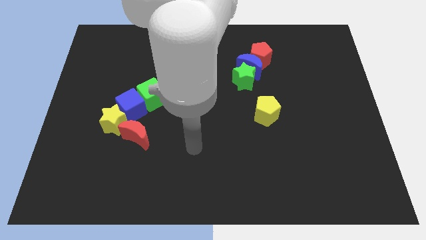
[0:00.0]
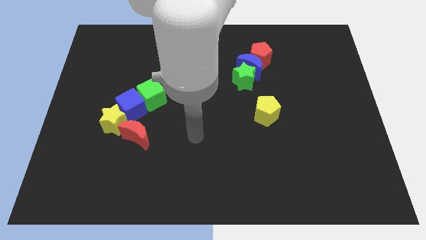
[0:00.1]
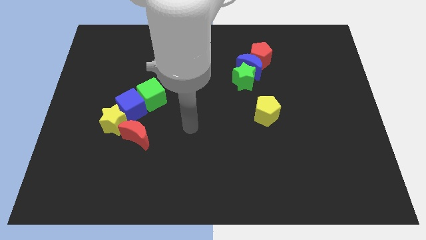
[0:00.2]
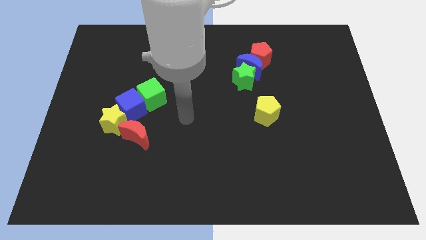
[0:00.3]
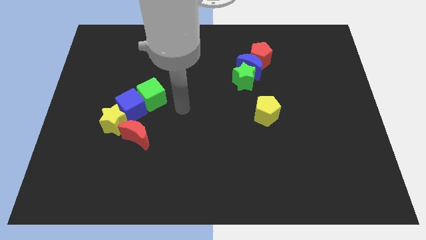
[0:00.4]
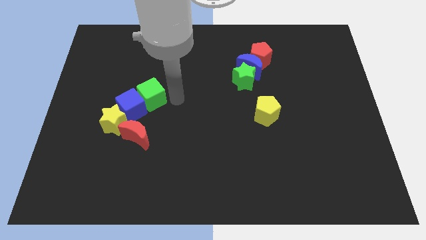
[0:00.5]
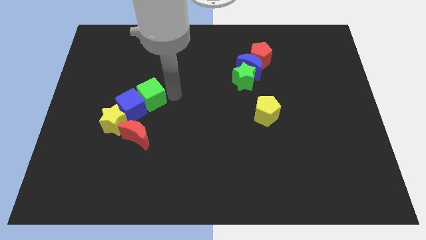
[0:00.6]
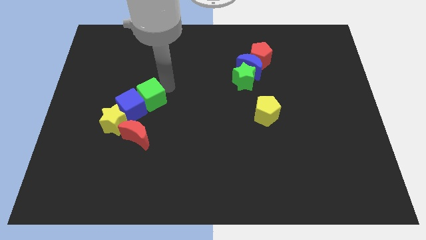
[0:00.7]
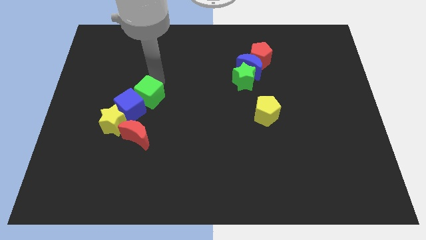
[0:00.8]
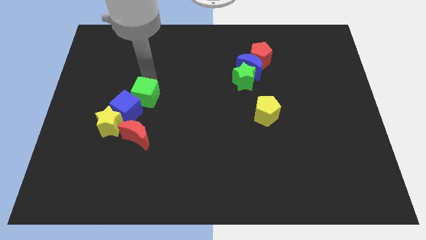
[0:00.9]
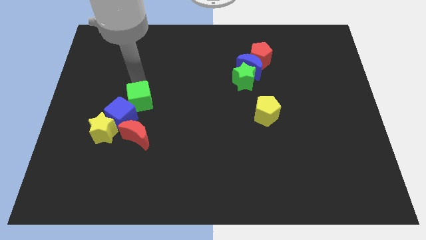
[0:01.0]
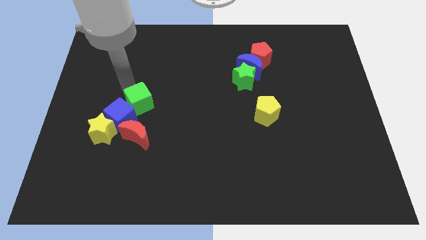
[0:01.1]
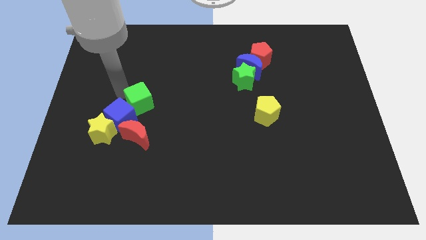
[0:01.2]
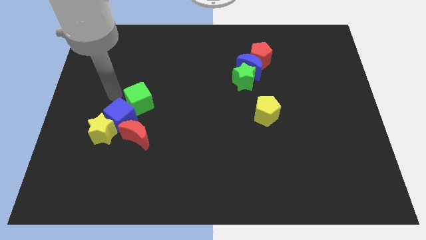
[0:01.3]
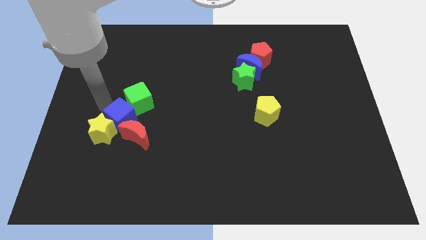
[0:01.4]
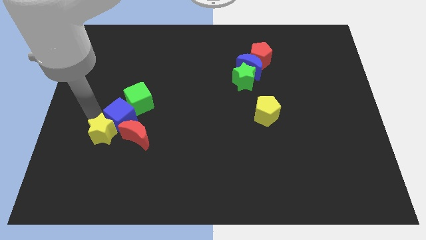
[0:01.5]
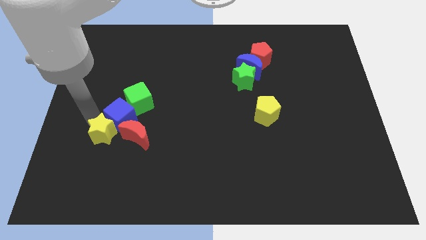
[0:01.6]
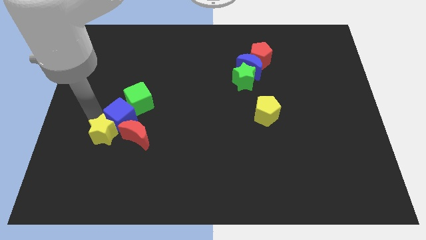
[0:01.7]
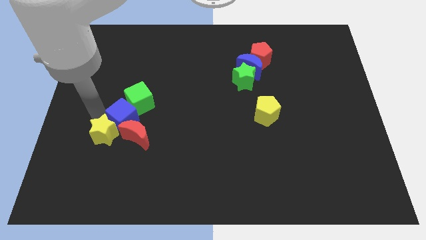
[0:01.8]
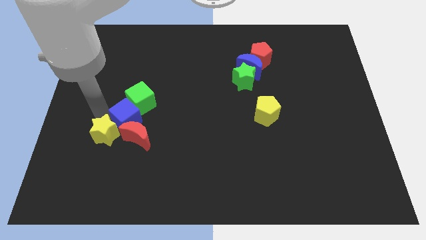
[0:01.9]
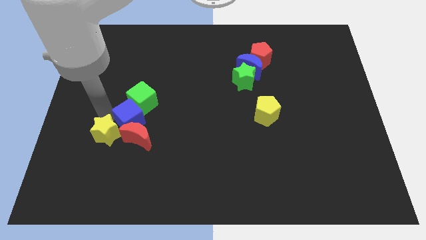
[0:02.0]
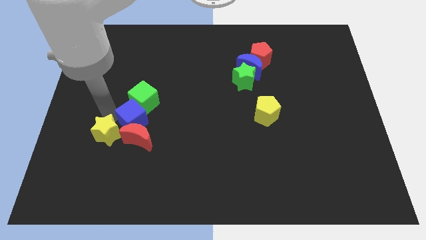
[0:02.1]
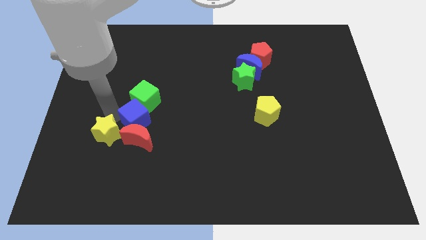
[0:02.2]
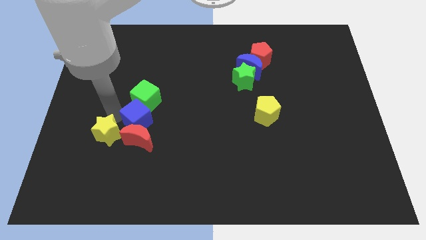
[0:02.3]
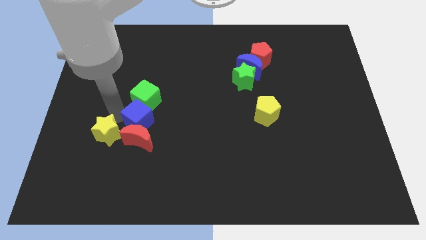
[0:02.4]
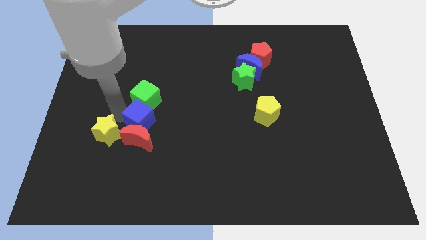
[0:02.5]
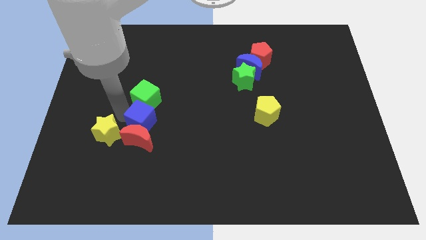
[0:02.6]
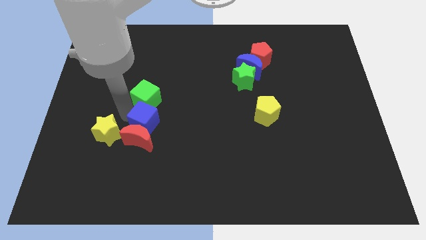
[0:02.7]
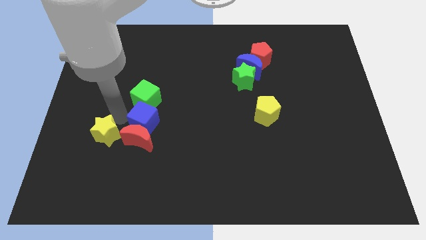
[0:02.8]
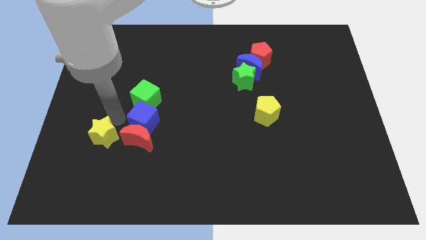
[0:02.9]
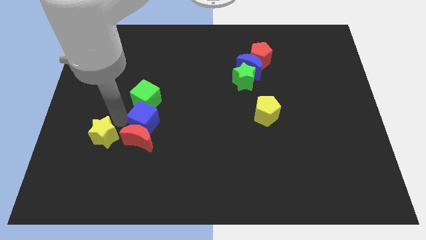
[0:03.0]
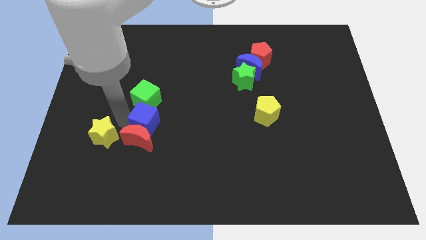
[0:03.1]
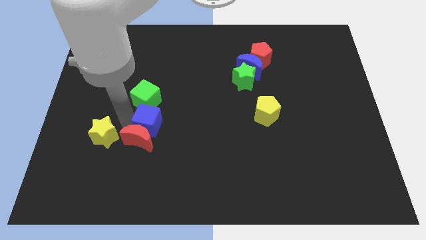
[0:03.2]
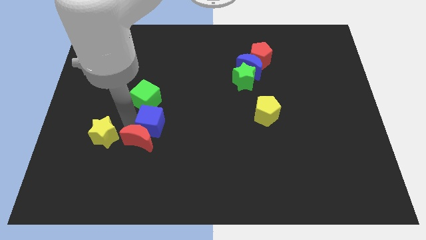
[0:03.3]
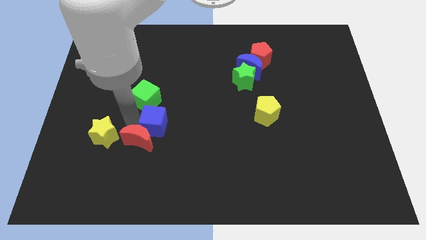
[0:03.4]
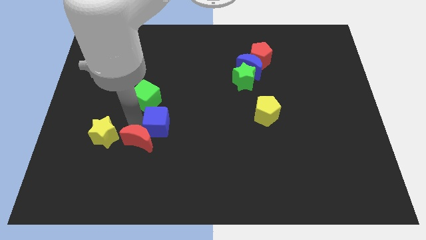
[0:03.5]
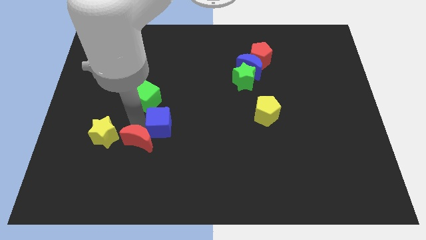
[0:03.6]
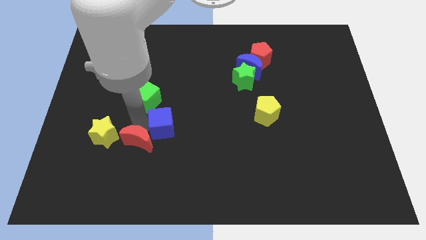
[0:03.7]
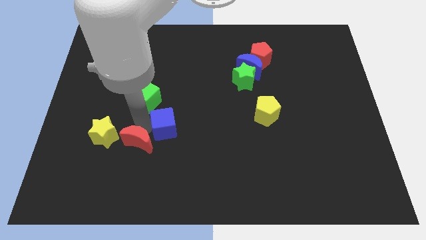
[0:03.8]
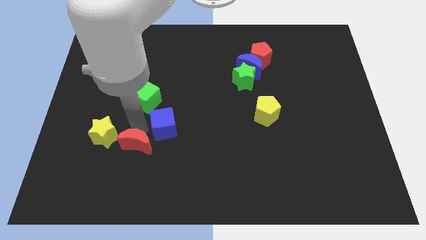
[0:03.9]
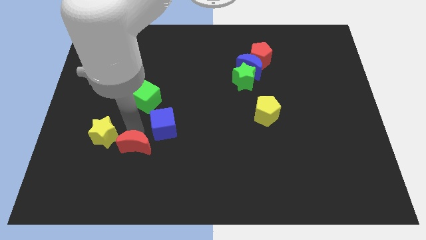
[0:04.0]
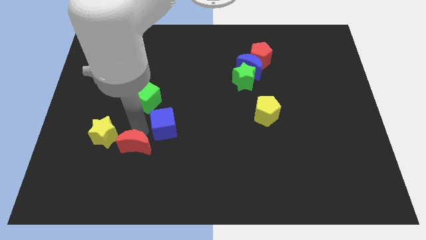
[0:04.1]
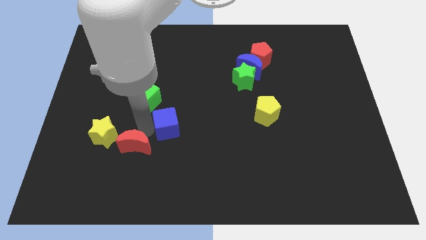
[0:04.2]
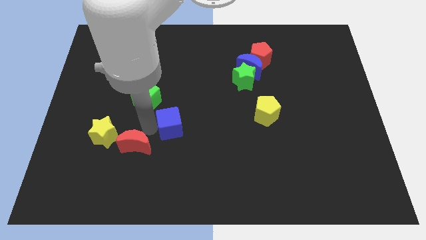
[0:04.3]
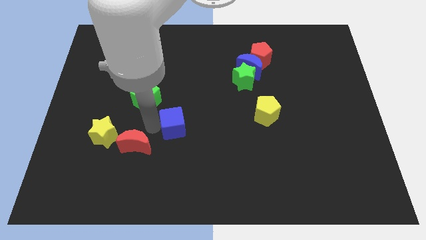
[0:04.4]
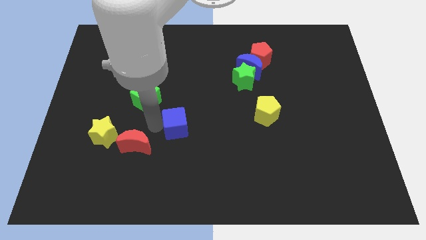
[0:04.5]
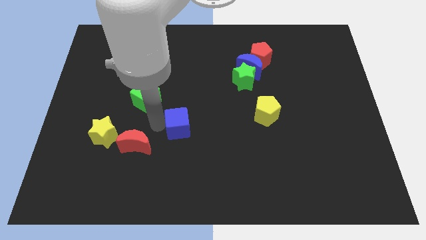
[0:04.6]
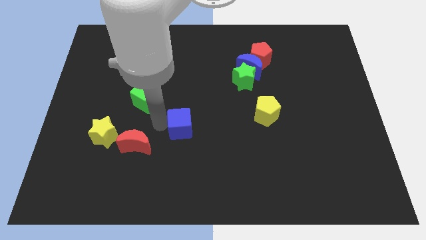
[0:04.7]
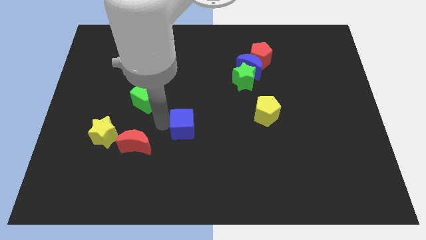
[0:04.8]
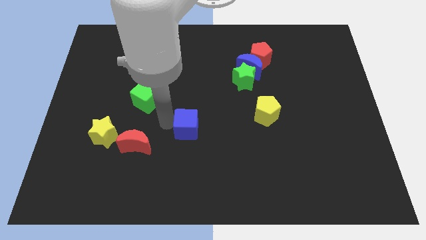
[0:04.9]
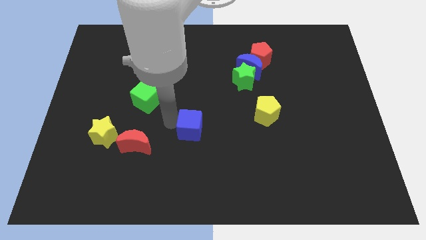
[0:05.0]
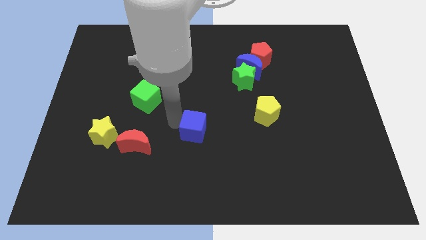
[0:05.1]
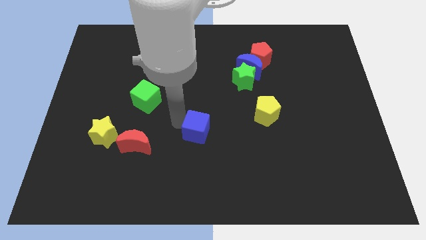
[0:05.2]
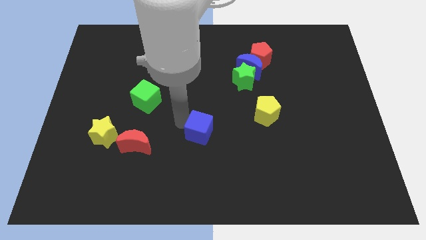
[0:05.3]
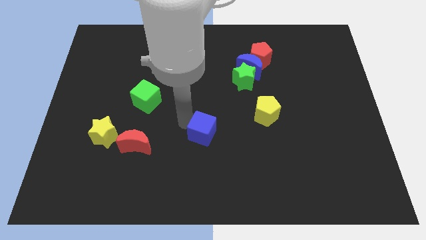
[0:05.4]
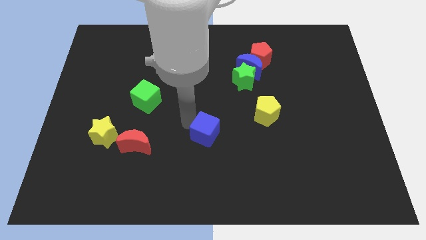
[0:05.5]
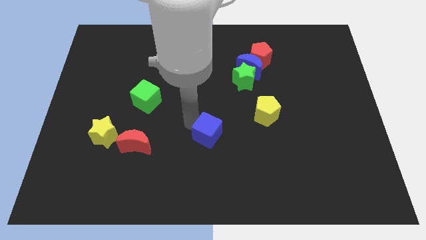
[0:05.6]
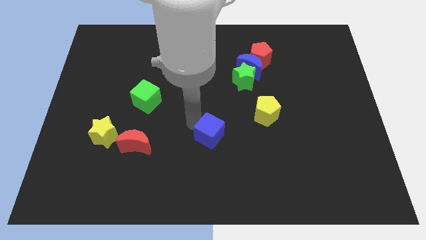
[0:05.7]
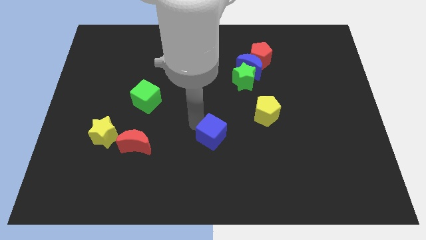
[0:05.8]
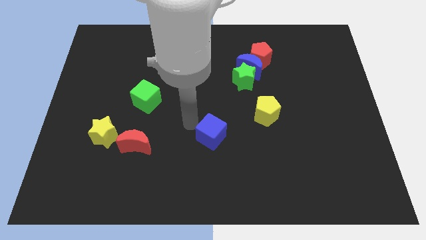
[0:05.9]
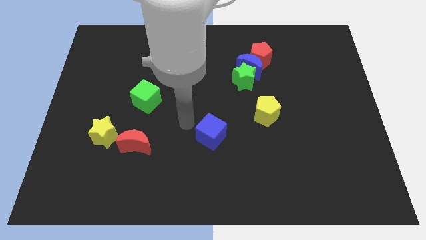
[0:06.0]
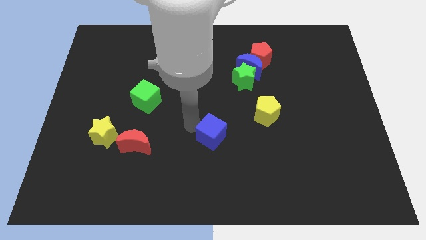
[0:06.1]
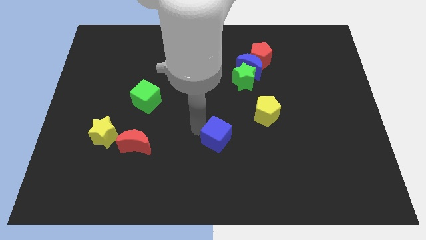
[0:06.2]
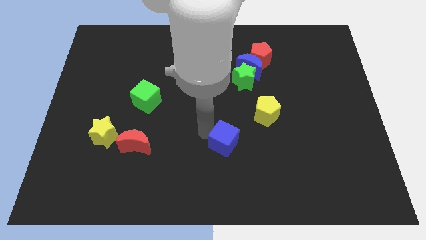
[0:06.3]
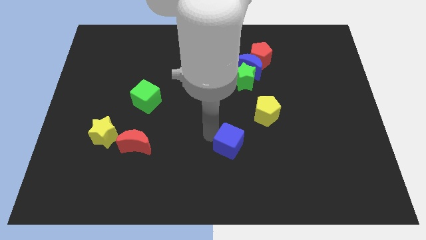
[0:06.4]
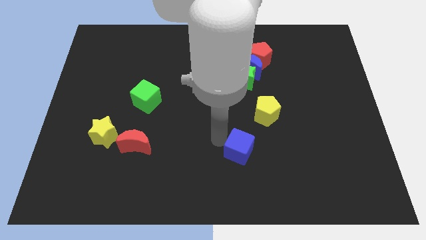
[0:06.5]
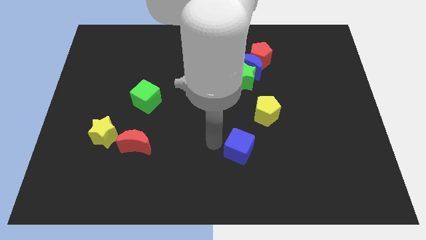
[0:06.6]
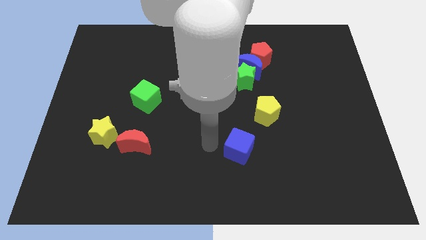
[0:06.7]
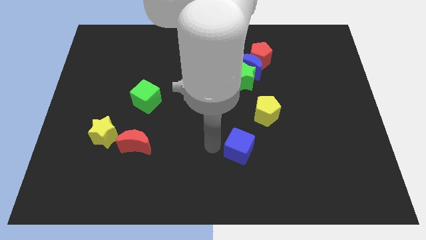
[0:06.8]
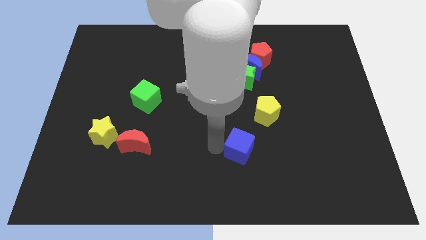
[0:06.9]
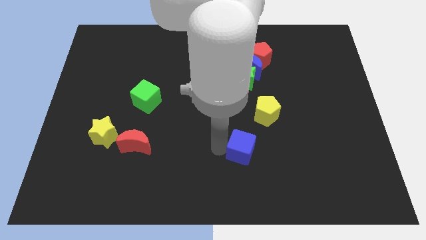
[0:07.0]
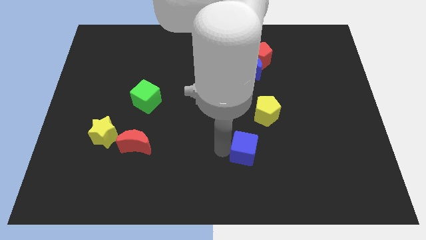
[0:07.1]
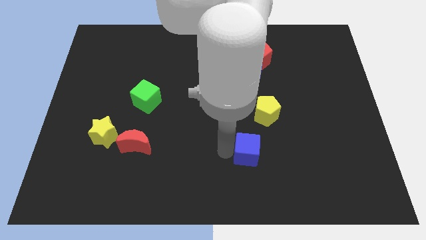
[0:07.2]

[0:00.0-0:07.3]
move the blue cube to the bottom side of the yellow pentagon

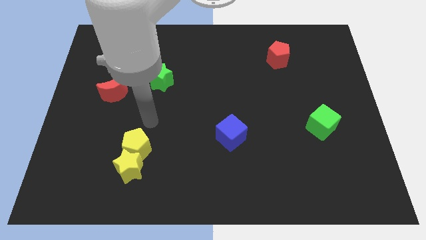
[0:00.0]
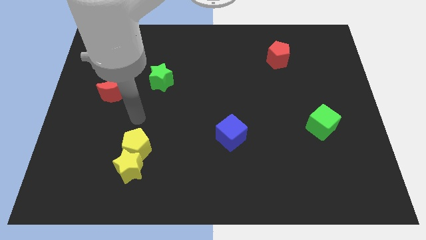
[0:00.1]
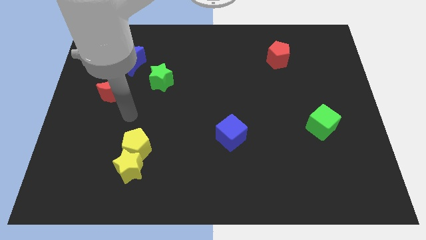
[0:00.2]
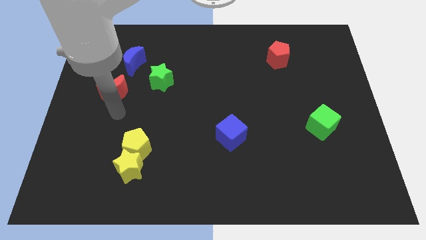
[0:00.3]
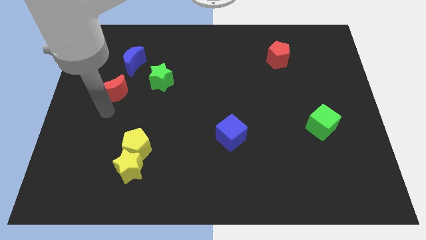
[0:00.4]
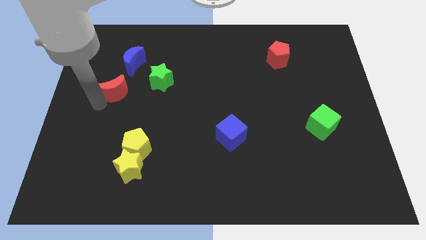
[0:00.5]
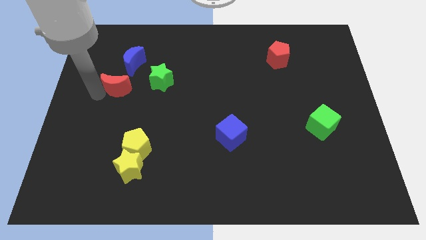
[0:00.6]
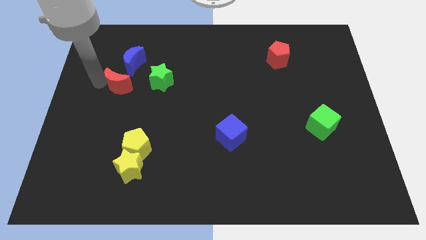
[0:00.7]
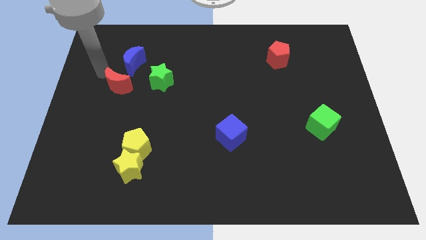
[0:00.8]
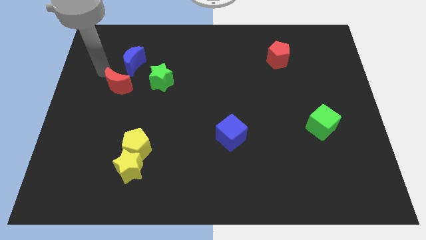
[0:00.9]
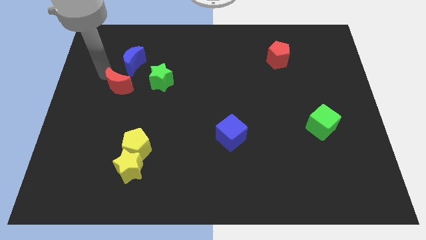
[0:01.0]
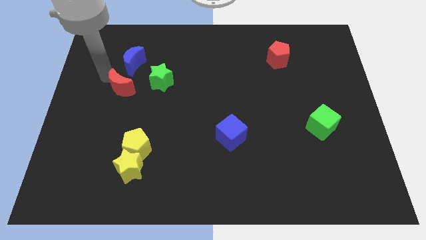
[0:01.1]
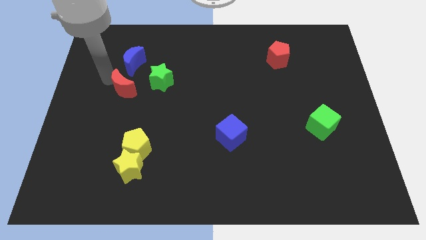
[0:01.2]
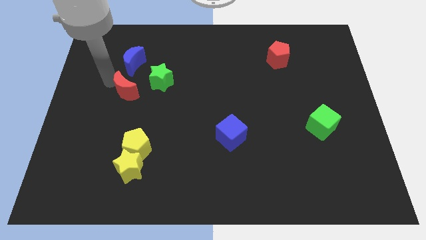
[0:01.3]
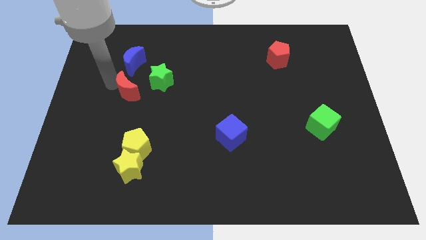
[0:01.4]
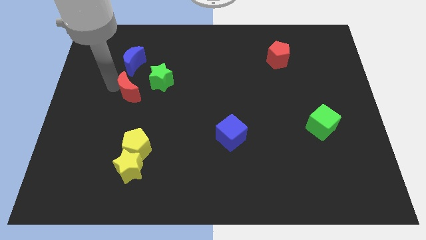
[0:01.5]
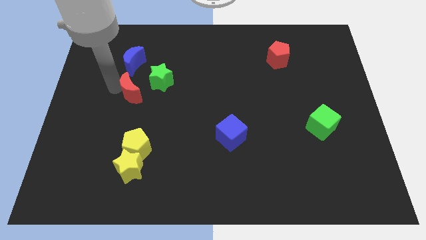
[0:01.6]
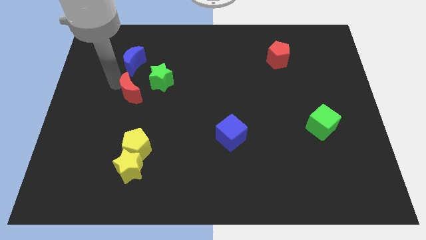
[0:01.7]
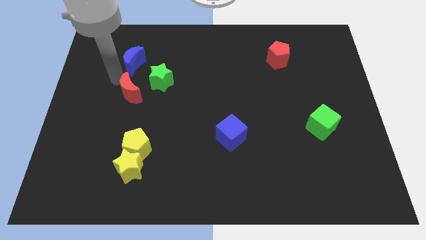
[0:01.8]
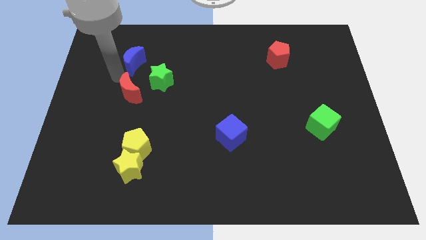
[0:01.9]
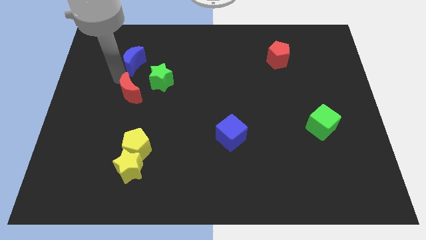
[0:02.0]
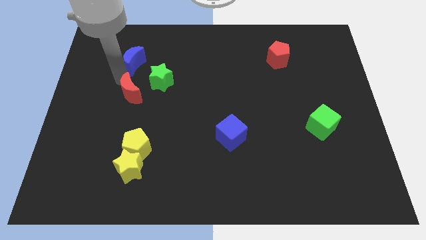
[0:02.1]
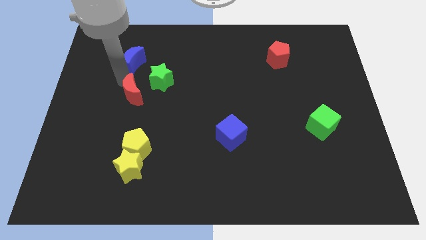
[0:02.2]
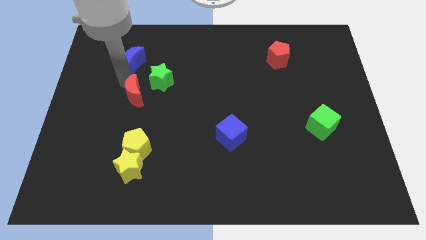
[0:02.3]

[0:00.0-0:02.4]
push the red moon to the top side of the yellow pentagon
